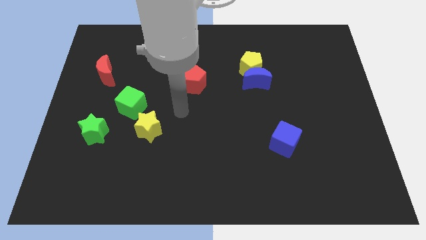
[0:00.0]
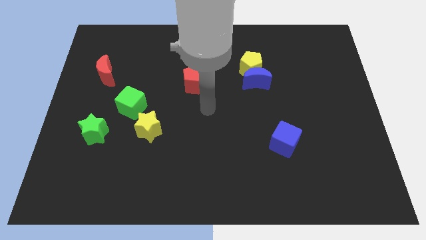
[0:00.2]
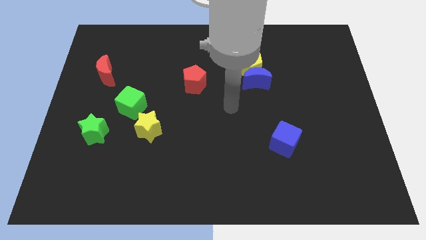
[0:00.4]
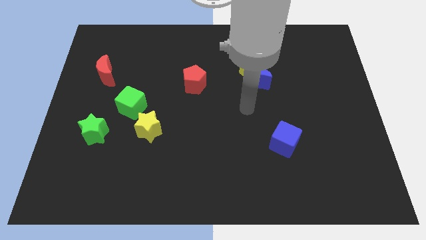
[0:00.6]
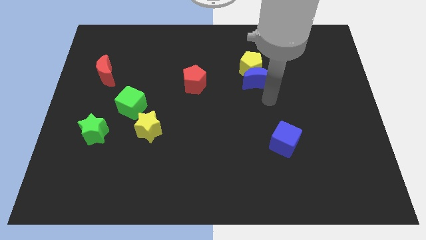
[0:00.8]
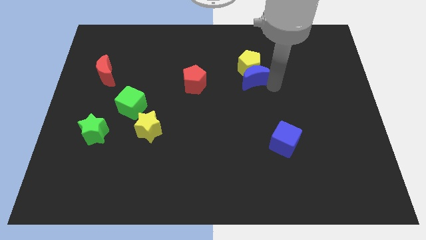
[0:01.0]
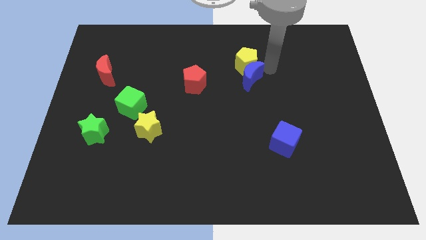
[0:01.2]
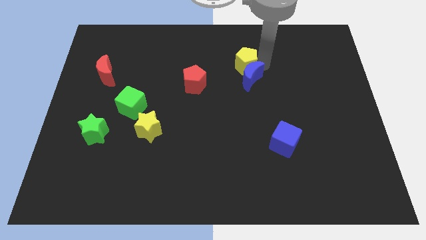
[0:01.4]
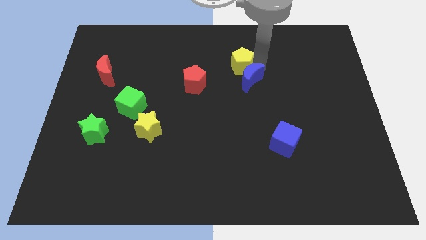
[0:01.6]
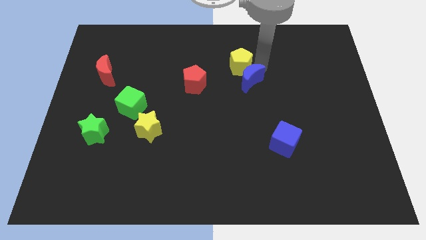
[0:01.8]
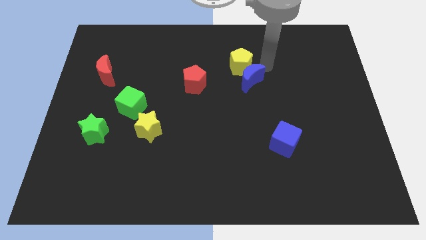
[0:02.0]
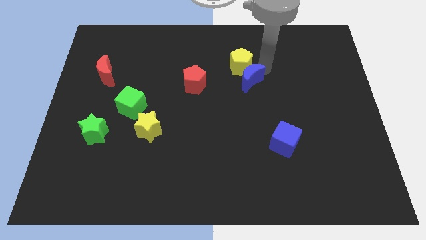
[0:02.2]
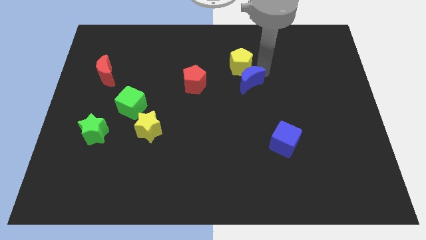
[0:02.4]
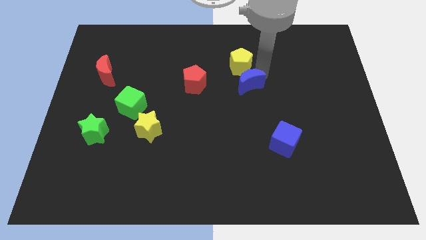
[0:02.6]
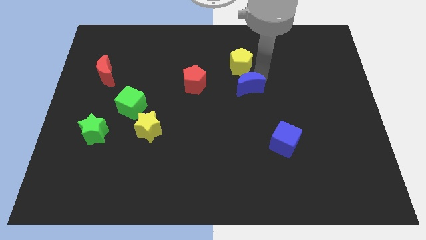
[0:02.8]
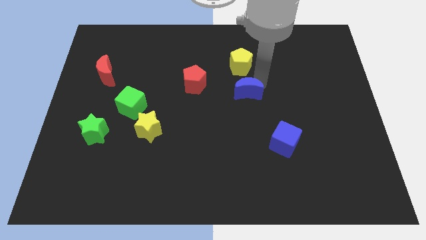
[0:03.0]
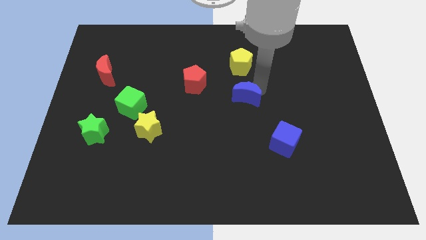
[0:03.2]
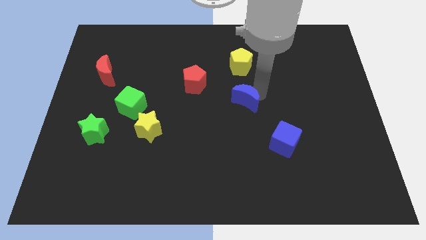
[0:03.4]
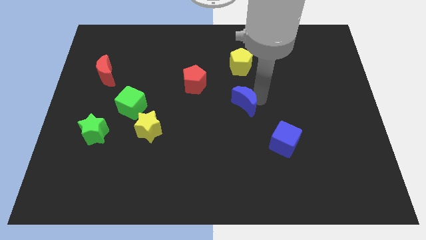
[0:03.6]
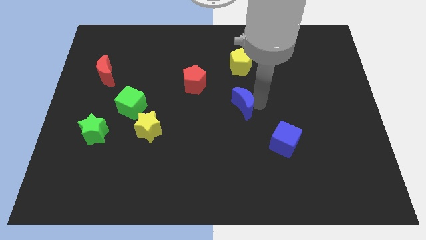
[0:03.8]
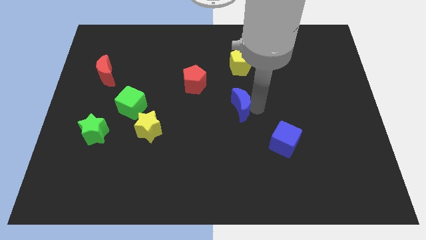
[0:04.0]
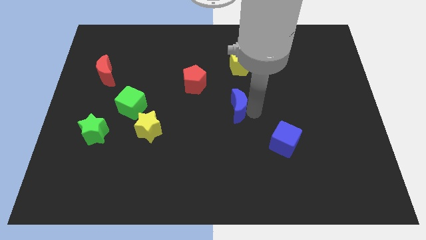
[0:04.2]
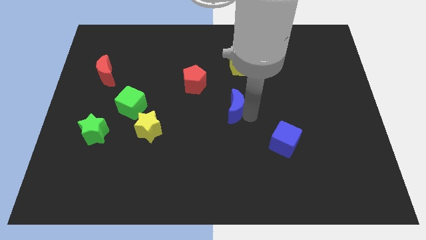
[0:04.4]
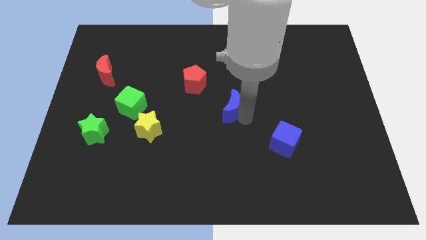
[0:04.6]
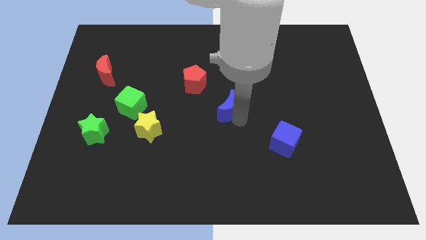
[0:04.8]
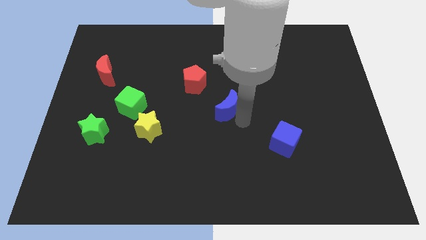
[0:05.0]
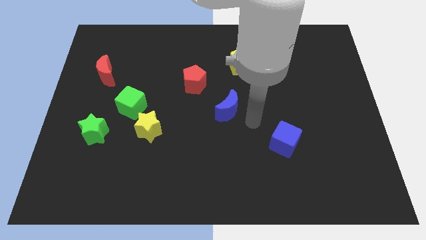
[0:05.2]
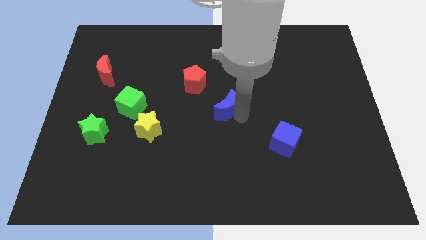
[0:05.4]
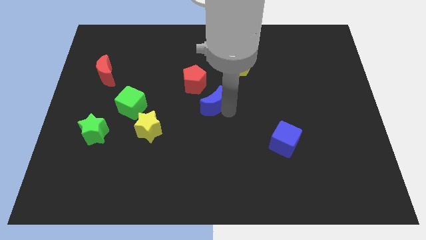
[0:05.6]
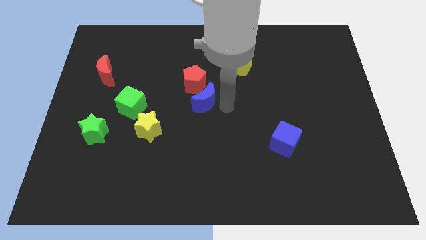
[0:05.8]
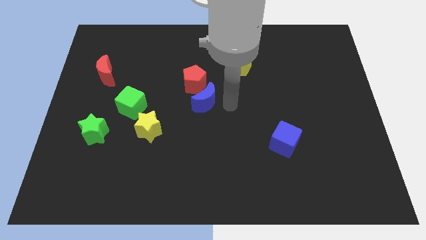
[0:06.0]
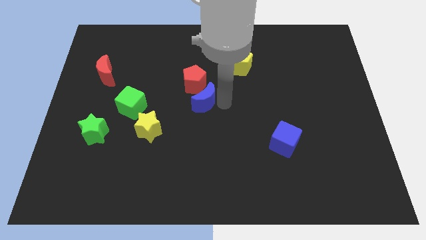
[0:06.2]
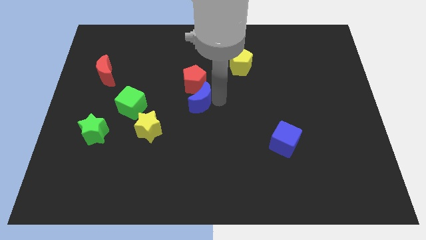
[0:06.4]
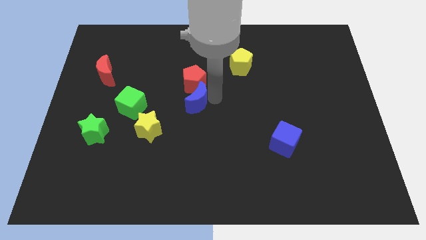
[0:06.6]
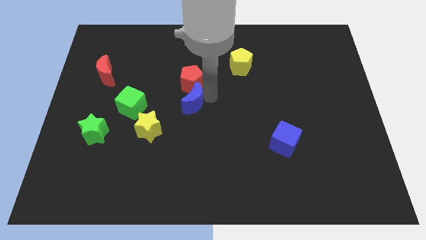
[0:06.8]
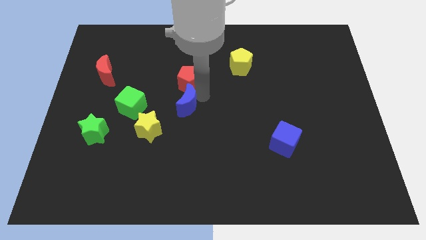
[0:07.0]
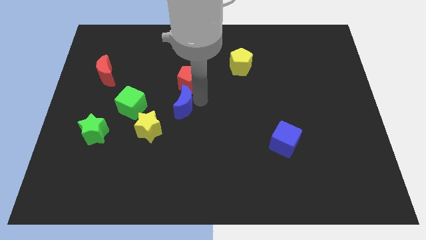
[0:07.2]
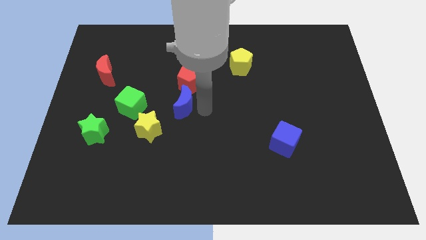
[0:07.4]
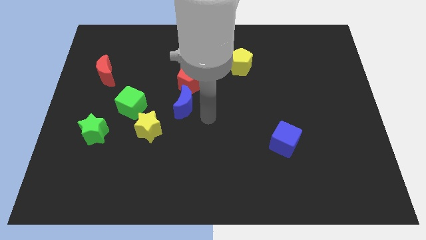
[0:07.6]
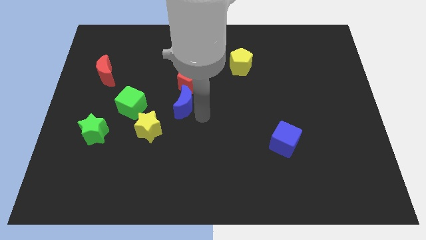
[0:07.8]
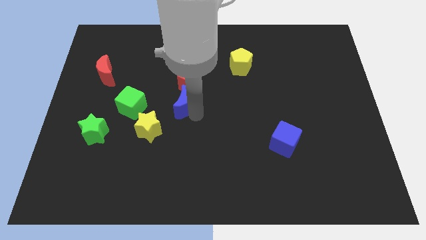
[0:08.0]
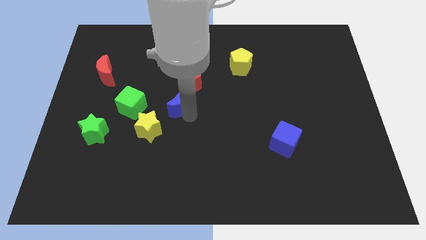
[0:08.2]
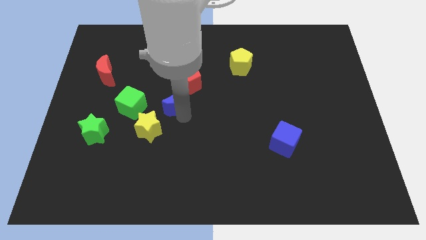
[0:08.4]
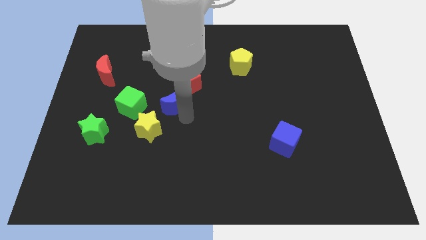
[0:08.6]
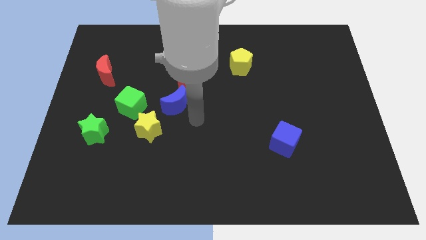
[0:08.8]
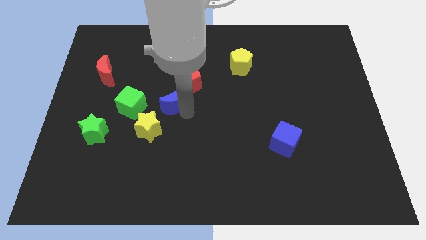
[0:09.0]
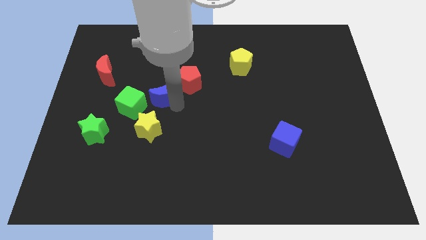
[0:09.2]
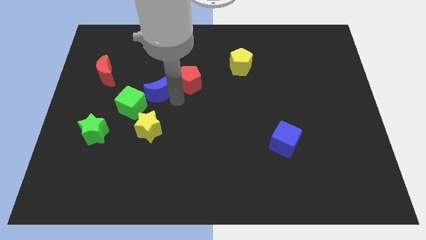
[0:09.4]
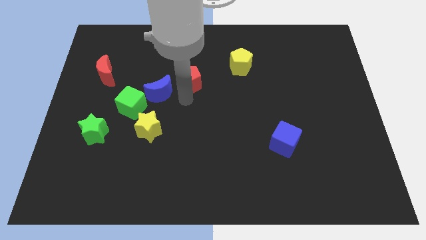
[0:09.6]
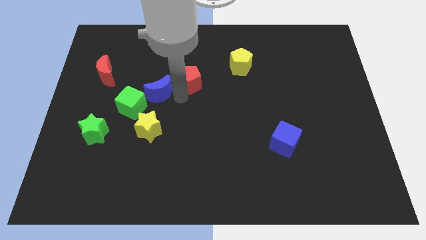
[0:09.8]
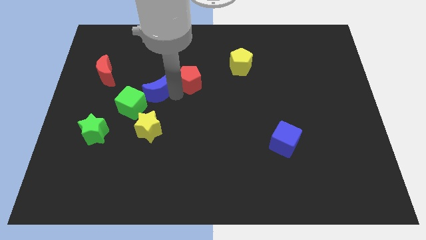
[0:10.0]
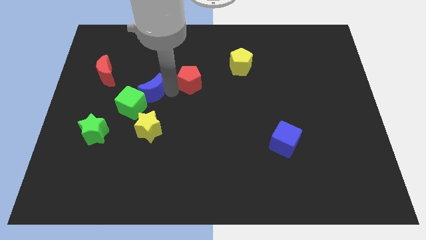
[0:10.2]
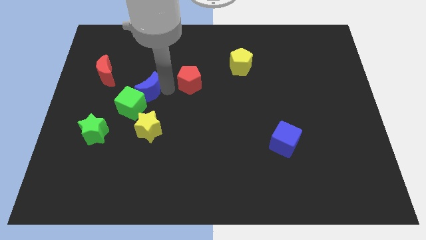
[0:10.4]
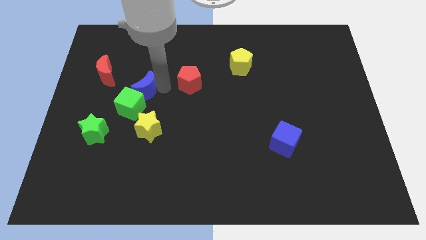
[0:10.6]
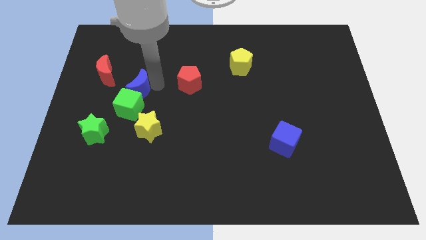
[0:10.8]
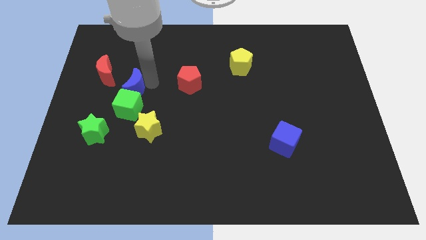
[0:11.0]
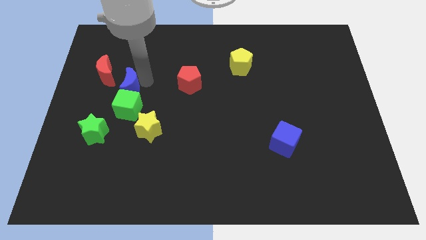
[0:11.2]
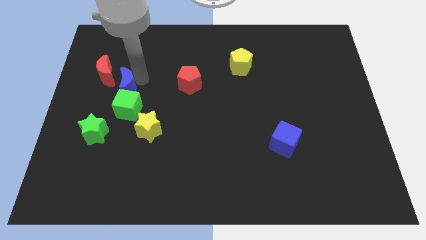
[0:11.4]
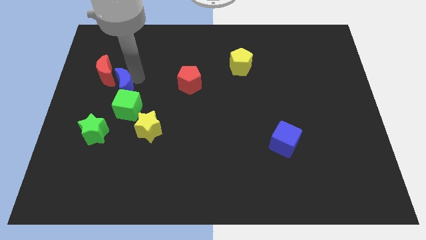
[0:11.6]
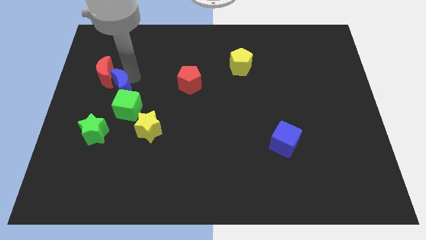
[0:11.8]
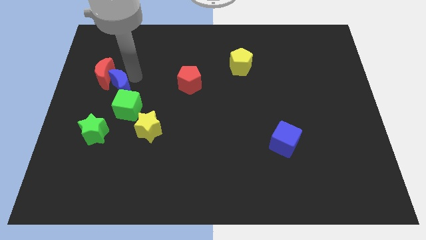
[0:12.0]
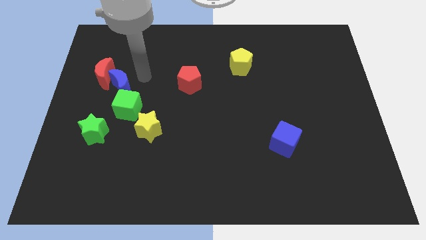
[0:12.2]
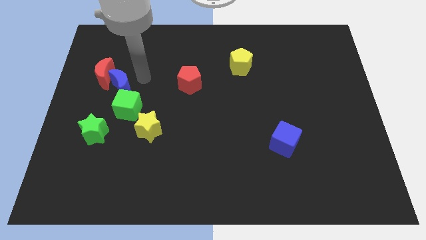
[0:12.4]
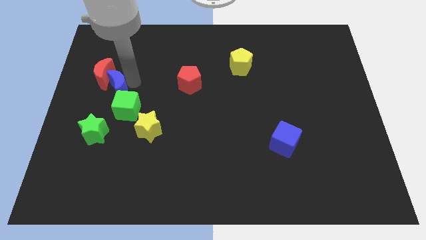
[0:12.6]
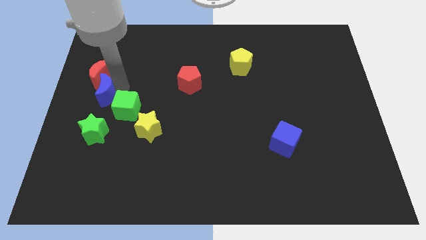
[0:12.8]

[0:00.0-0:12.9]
put the blue moon to the center left
